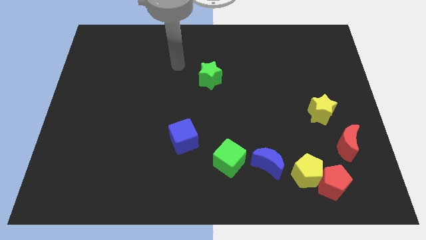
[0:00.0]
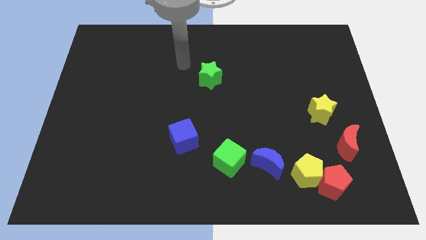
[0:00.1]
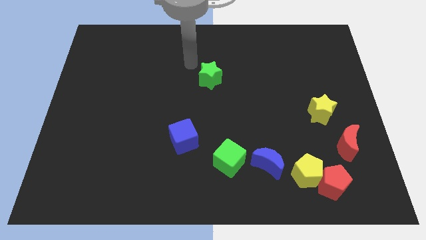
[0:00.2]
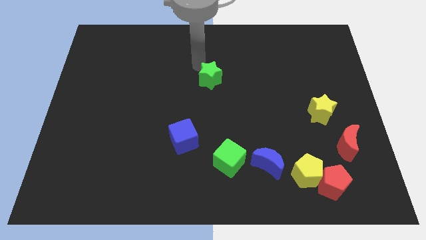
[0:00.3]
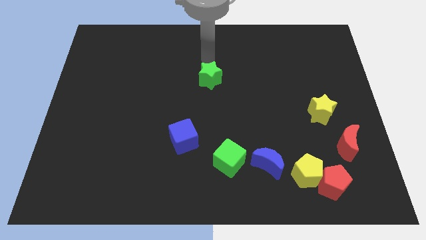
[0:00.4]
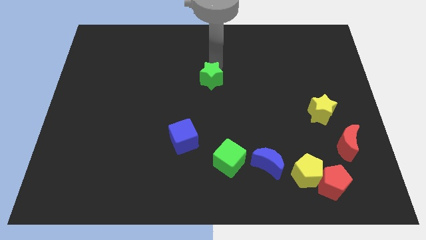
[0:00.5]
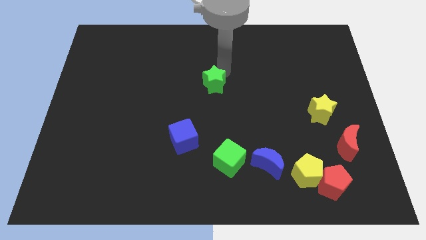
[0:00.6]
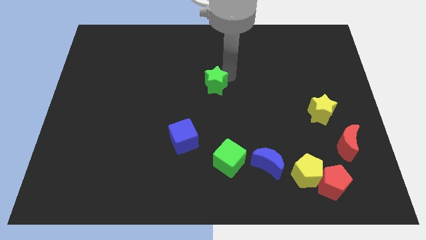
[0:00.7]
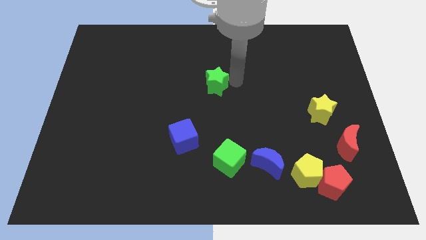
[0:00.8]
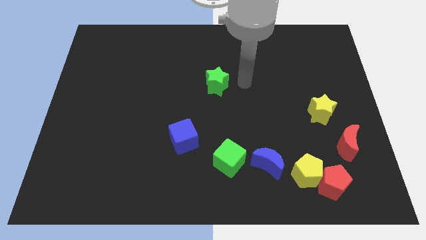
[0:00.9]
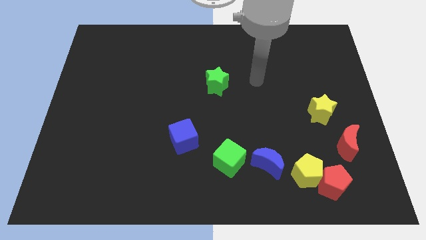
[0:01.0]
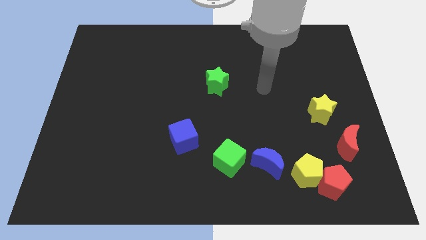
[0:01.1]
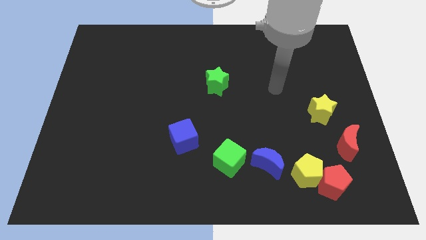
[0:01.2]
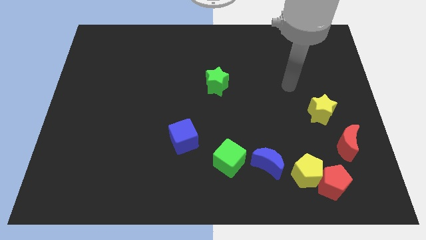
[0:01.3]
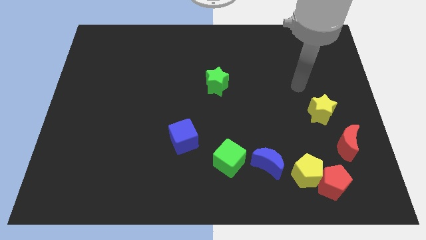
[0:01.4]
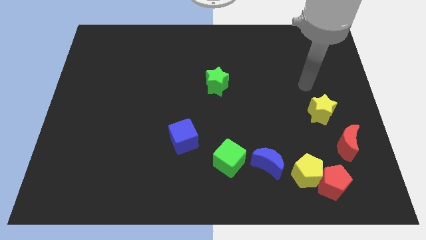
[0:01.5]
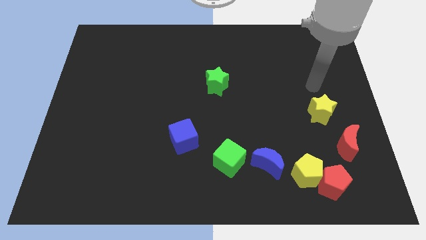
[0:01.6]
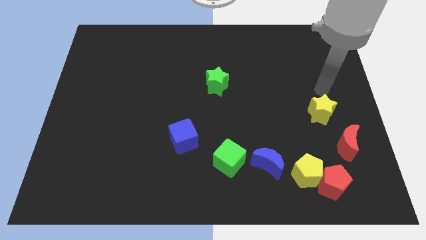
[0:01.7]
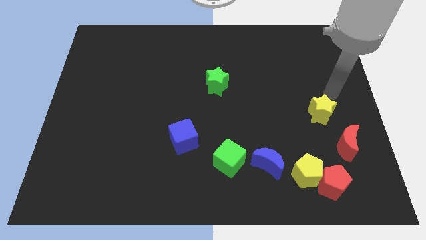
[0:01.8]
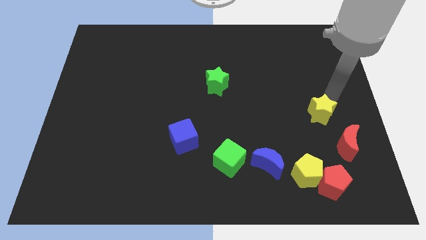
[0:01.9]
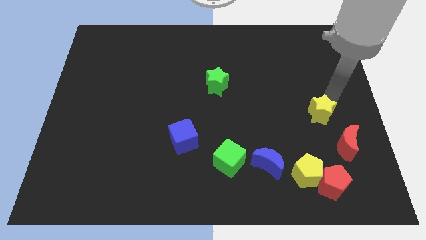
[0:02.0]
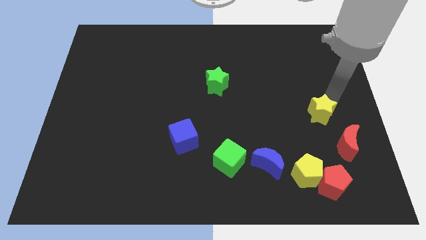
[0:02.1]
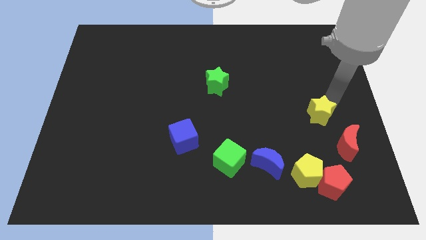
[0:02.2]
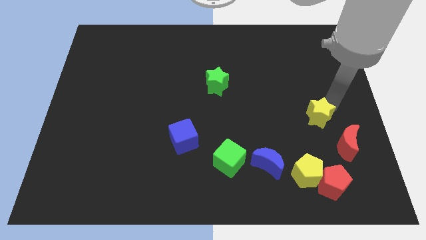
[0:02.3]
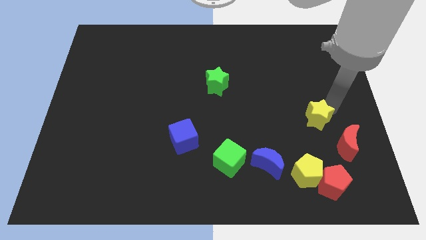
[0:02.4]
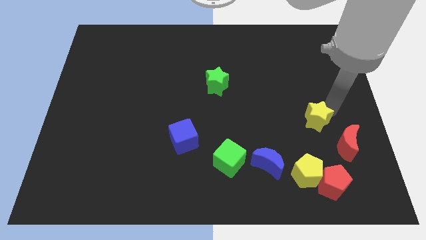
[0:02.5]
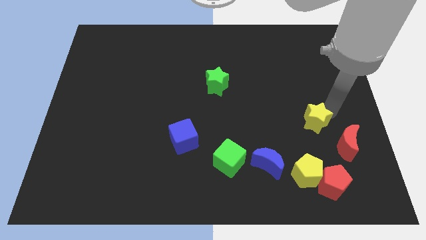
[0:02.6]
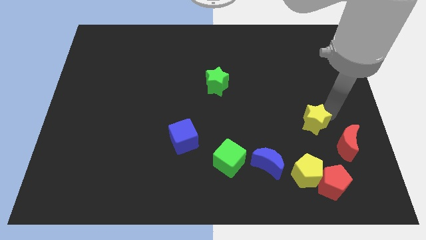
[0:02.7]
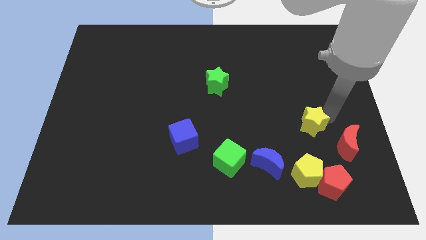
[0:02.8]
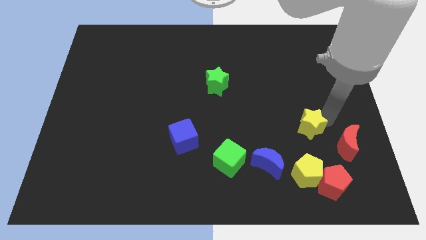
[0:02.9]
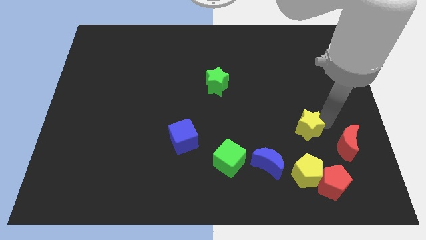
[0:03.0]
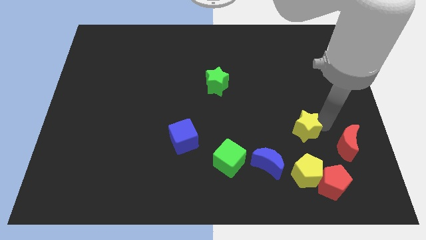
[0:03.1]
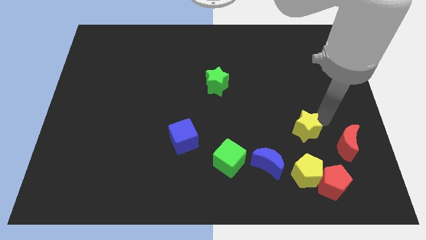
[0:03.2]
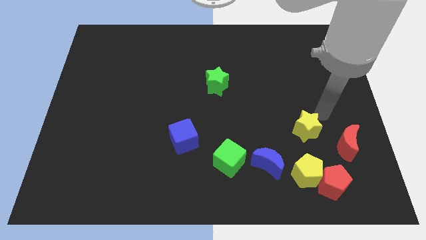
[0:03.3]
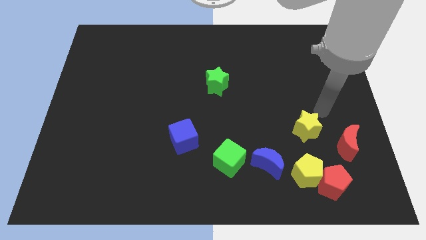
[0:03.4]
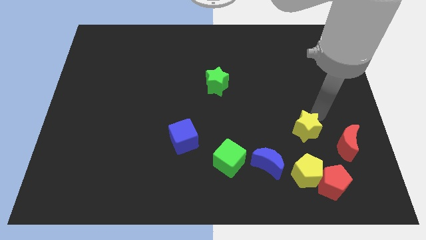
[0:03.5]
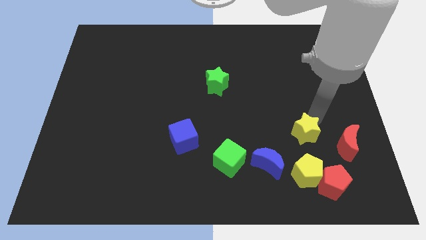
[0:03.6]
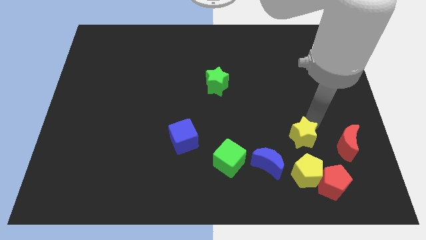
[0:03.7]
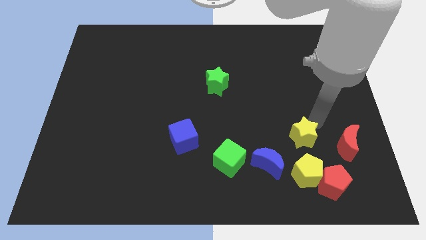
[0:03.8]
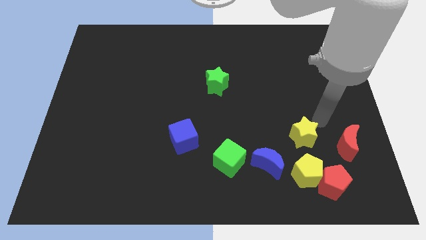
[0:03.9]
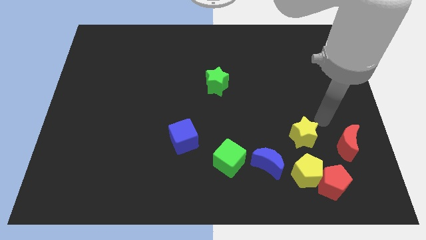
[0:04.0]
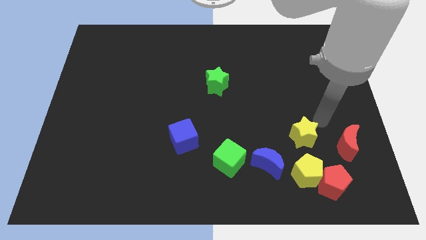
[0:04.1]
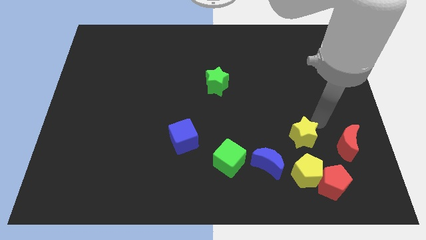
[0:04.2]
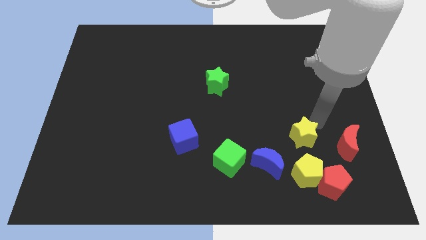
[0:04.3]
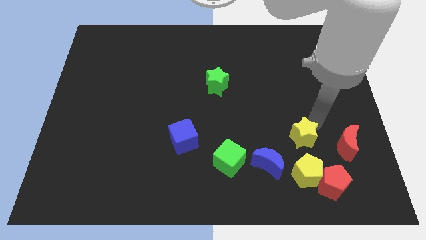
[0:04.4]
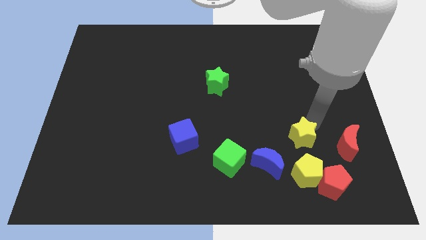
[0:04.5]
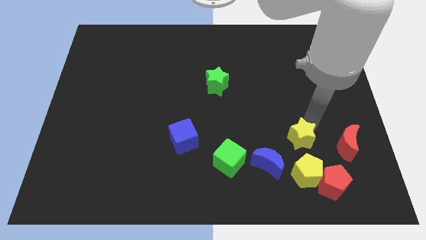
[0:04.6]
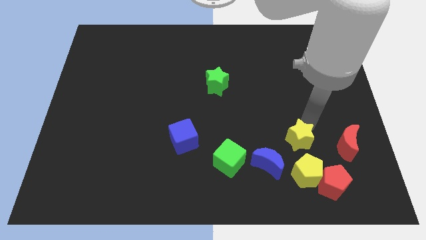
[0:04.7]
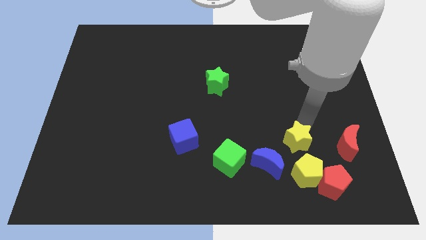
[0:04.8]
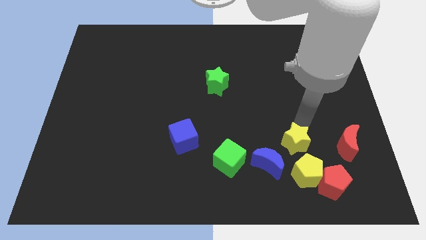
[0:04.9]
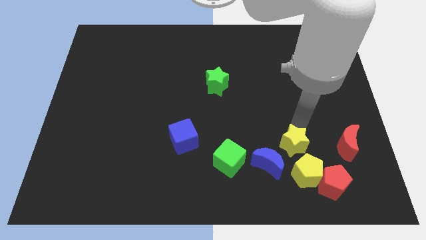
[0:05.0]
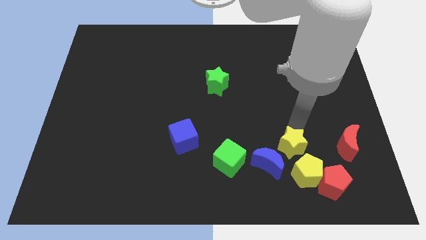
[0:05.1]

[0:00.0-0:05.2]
push the yellow star right of the green cube

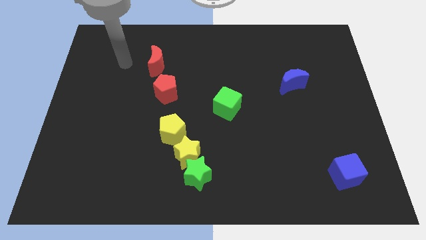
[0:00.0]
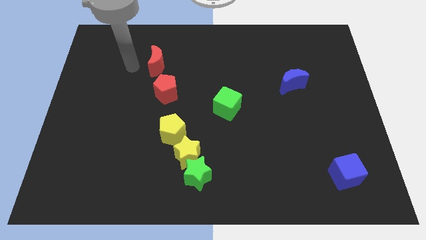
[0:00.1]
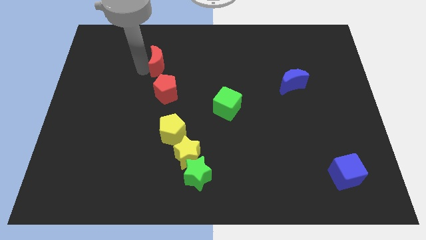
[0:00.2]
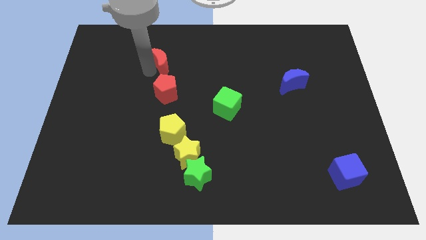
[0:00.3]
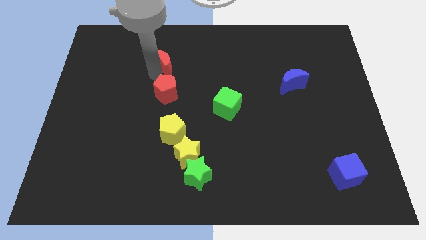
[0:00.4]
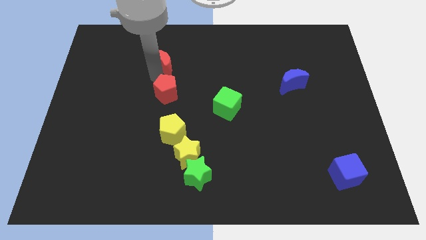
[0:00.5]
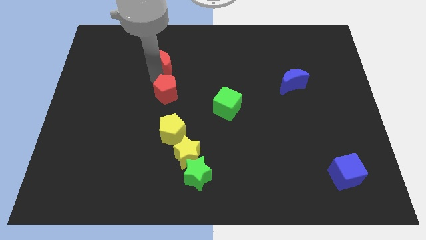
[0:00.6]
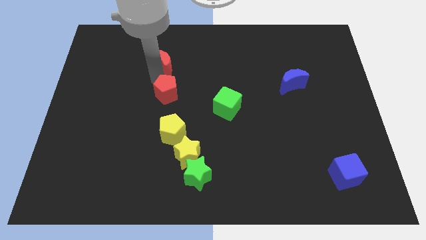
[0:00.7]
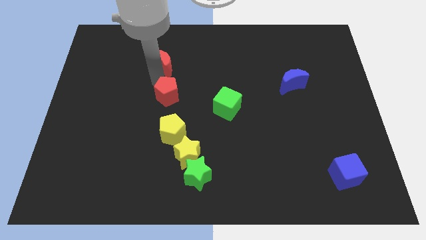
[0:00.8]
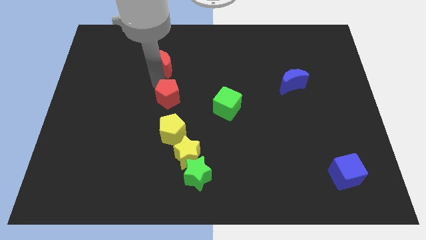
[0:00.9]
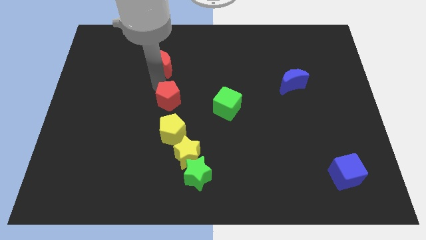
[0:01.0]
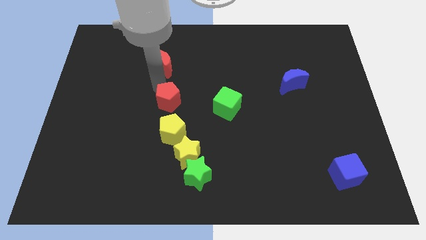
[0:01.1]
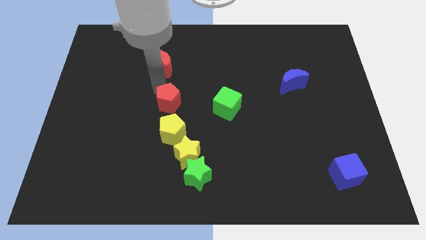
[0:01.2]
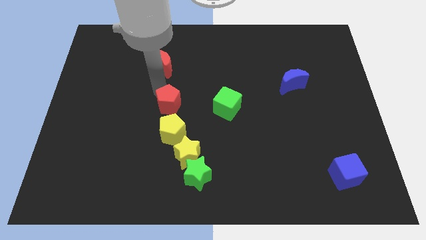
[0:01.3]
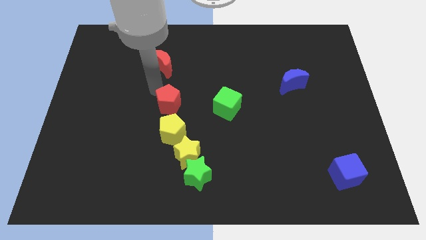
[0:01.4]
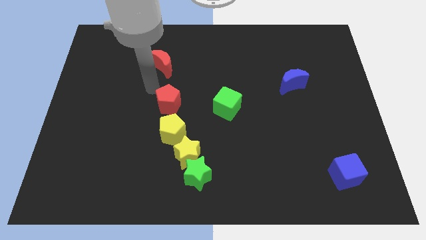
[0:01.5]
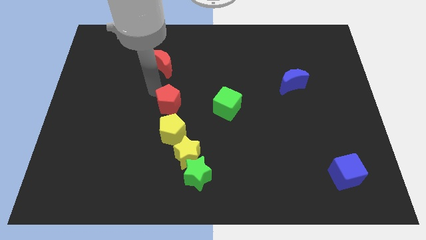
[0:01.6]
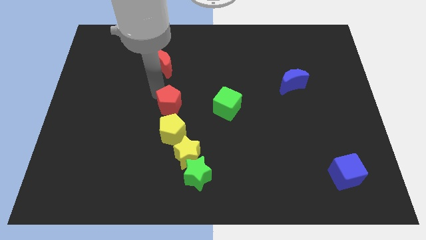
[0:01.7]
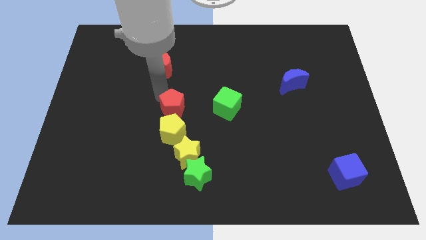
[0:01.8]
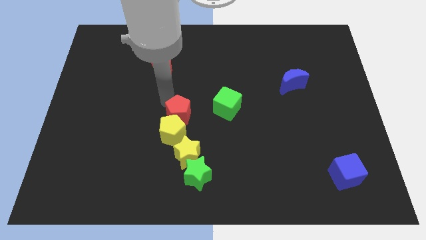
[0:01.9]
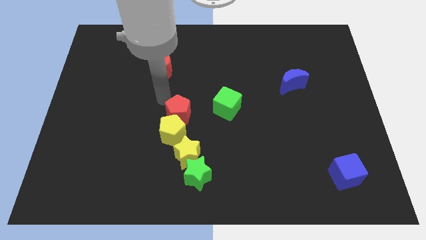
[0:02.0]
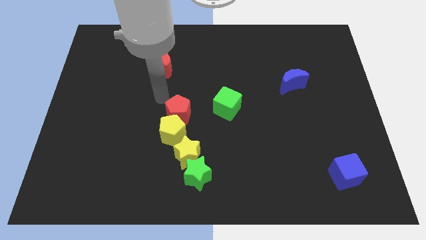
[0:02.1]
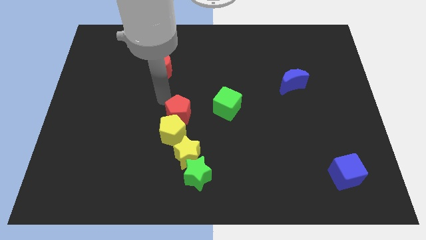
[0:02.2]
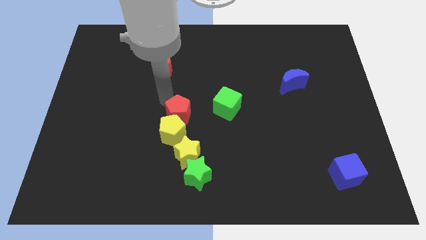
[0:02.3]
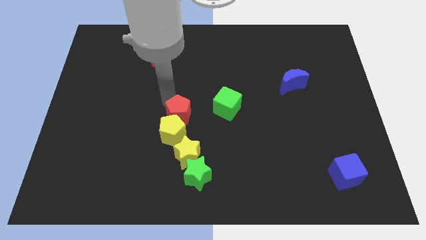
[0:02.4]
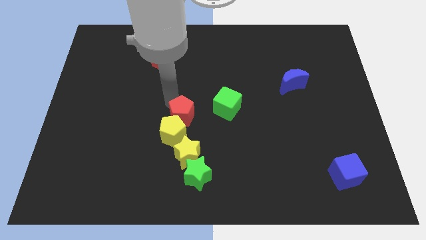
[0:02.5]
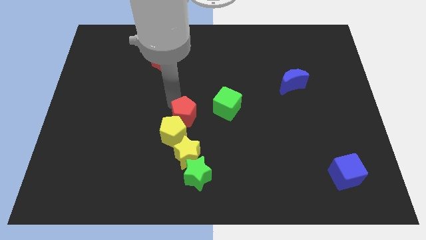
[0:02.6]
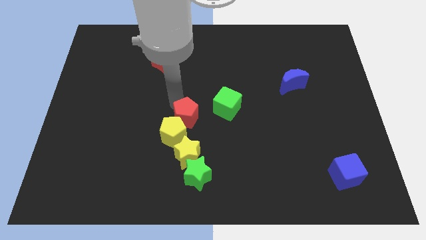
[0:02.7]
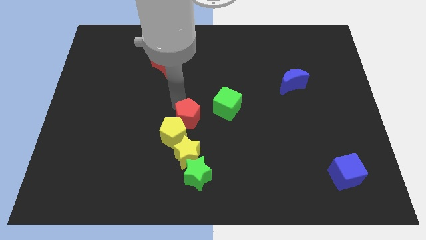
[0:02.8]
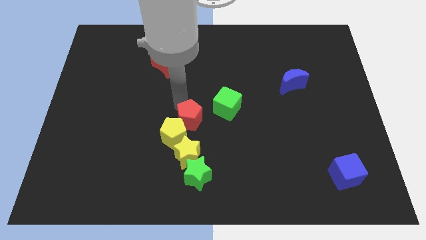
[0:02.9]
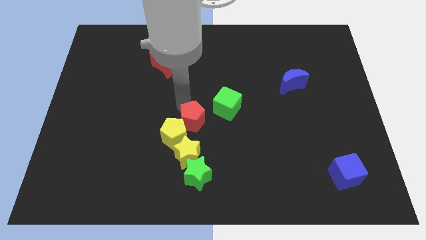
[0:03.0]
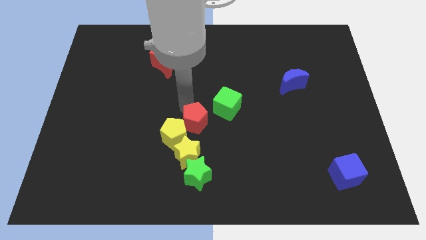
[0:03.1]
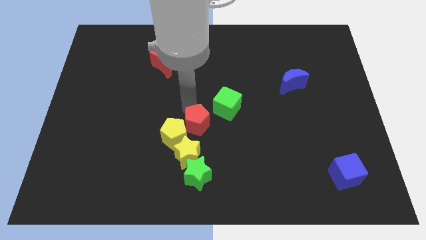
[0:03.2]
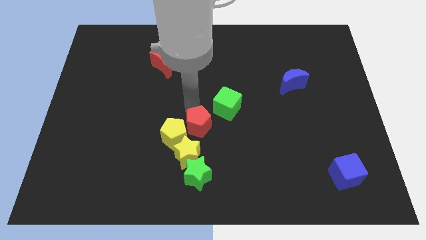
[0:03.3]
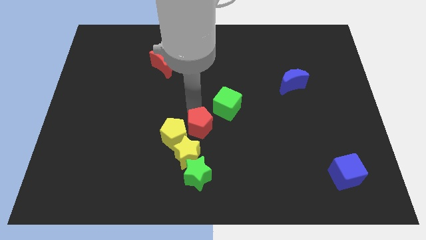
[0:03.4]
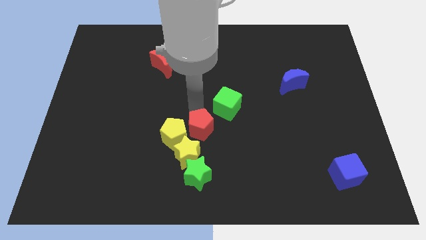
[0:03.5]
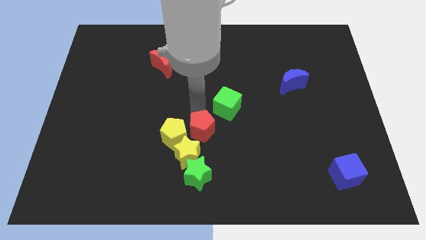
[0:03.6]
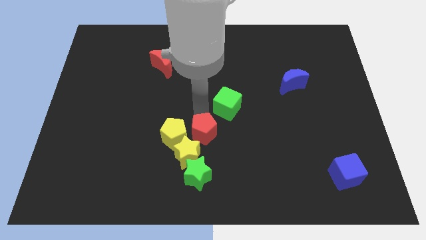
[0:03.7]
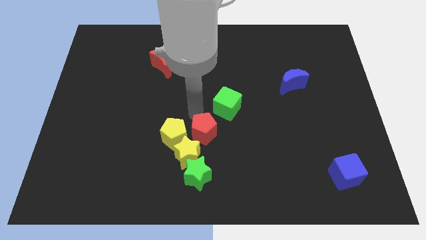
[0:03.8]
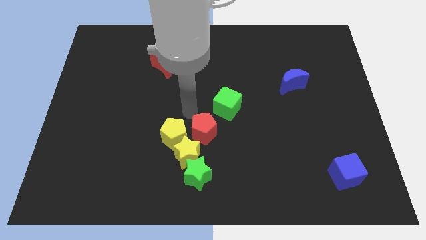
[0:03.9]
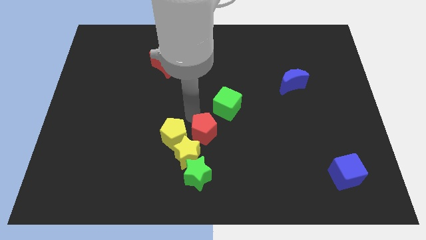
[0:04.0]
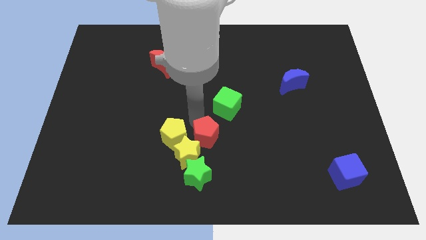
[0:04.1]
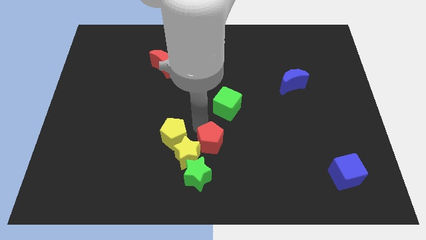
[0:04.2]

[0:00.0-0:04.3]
put the red pentagon diagonally up and to the right of the green star
